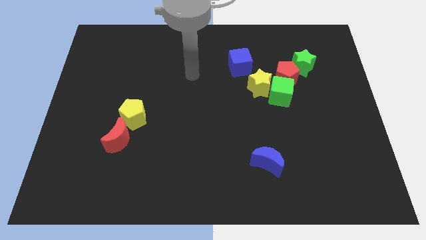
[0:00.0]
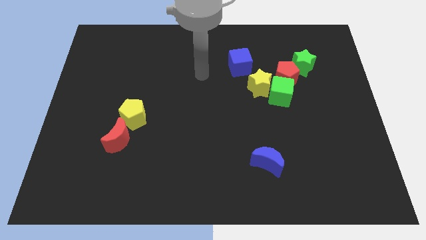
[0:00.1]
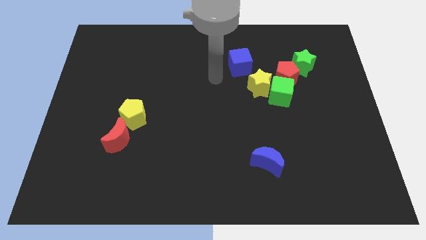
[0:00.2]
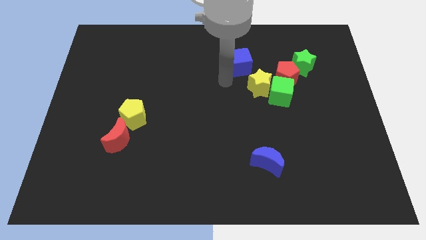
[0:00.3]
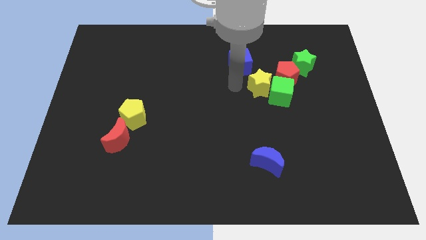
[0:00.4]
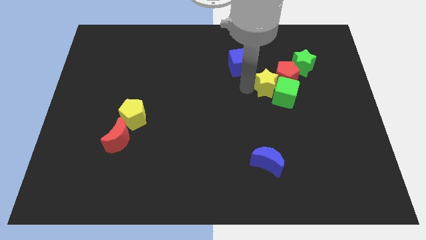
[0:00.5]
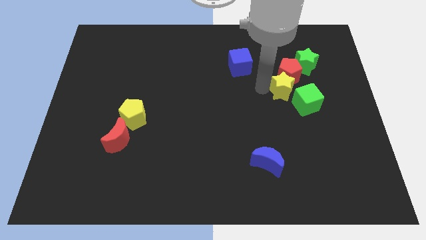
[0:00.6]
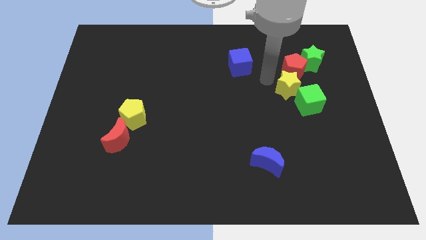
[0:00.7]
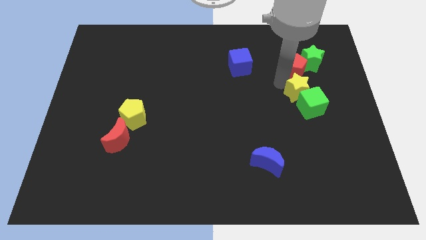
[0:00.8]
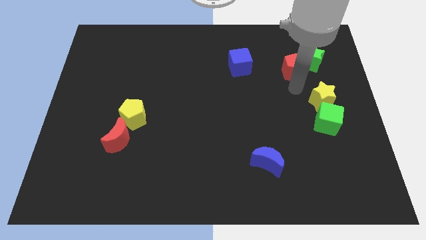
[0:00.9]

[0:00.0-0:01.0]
pull the green cube apart from the yellow star and red pentagon

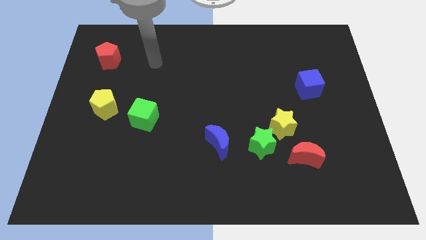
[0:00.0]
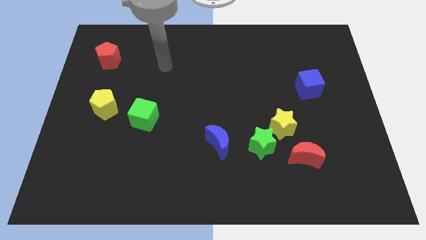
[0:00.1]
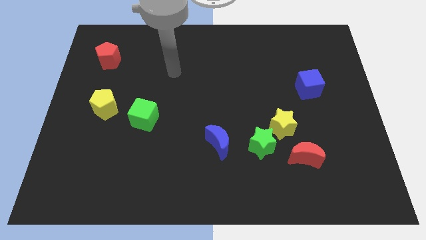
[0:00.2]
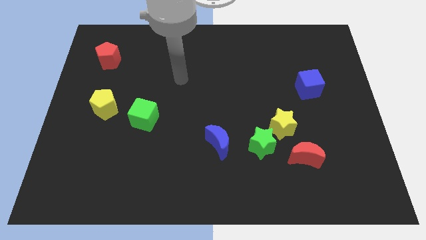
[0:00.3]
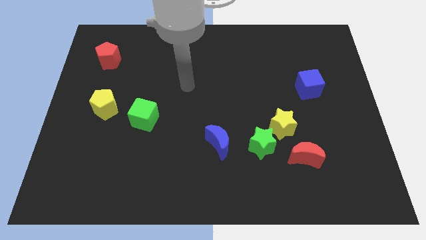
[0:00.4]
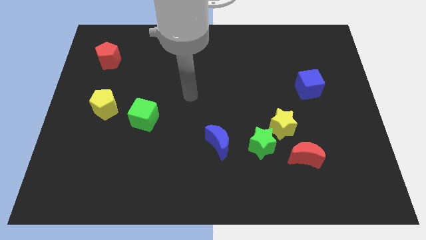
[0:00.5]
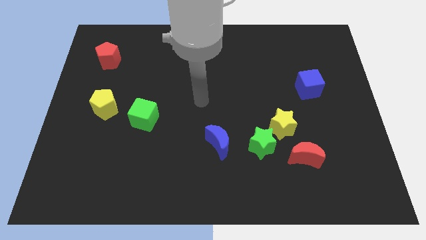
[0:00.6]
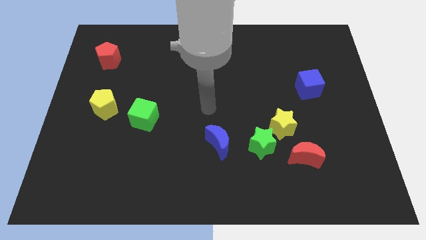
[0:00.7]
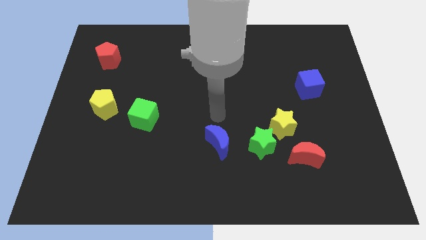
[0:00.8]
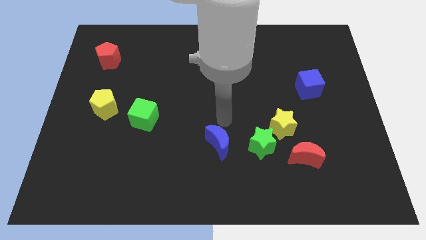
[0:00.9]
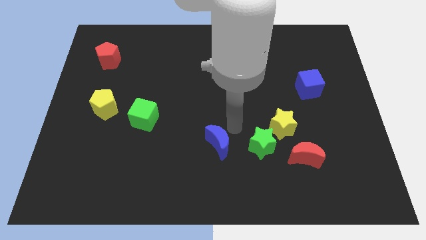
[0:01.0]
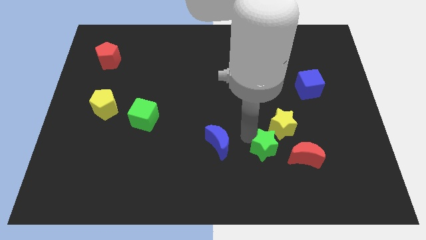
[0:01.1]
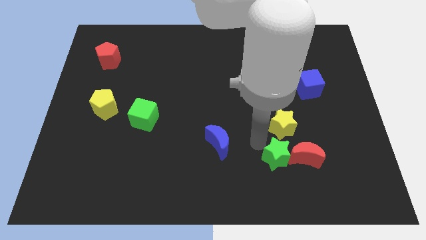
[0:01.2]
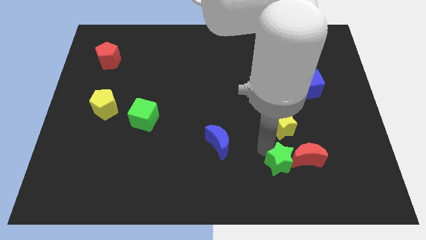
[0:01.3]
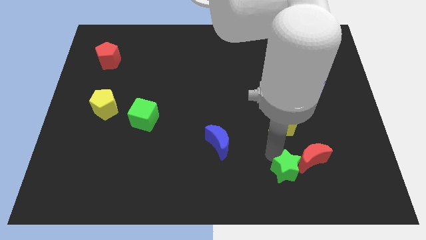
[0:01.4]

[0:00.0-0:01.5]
move the yellow star away from the green star and red moon

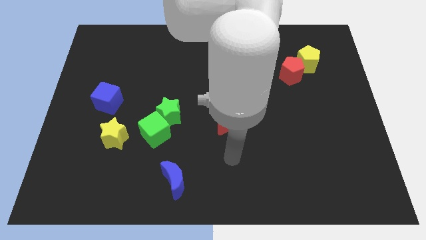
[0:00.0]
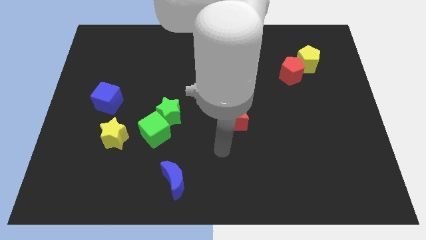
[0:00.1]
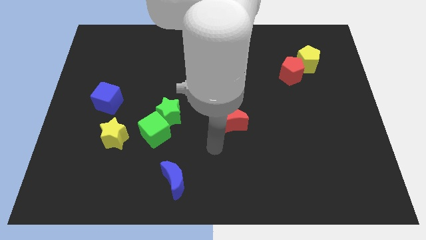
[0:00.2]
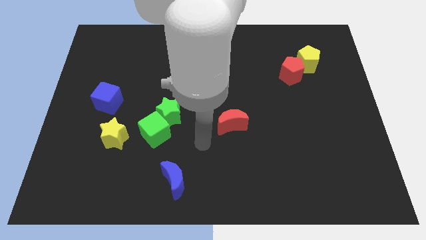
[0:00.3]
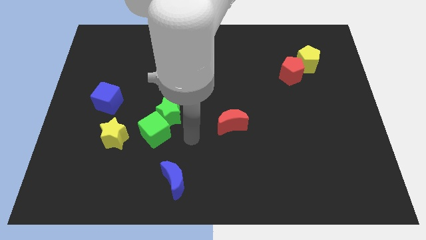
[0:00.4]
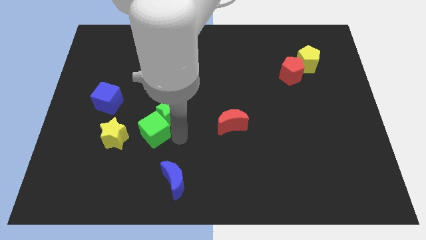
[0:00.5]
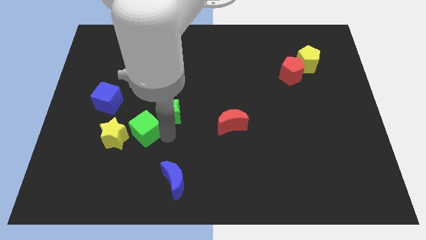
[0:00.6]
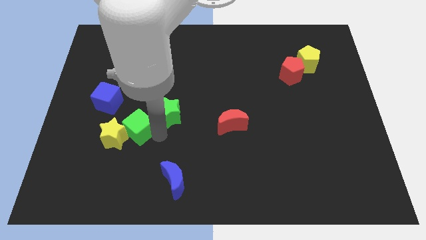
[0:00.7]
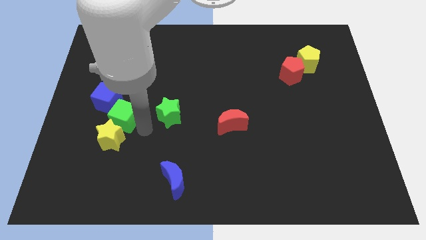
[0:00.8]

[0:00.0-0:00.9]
separate the green star from the green cube

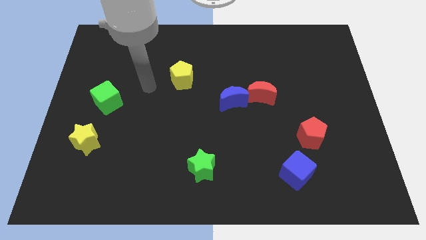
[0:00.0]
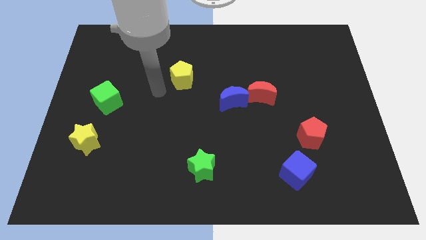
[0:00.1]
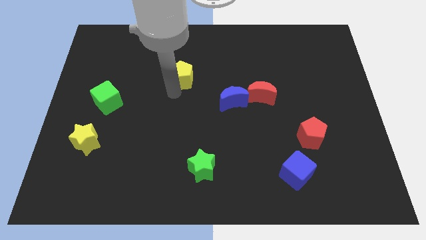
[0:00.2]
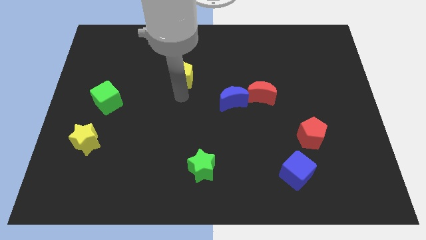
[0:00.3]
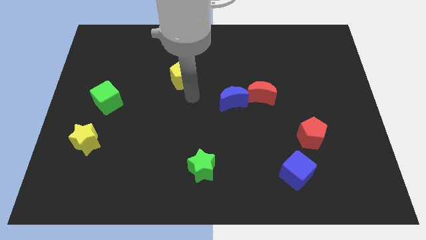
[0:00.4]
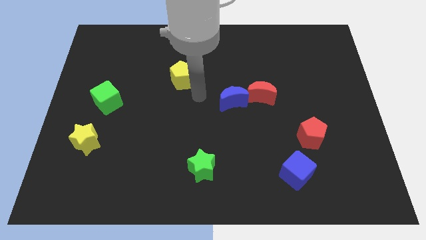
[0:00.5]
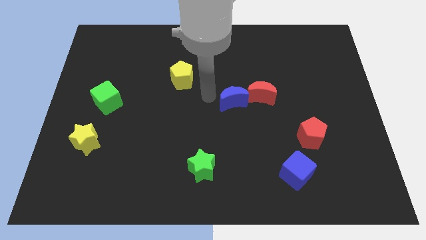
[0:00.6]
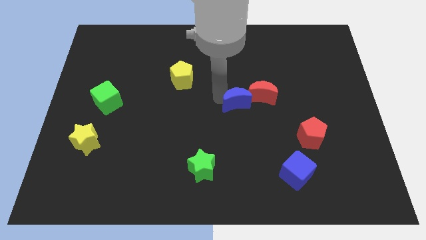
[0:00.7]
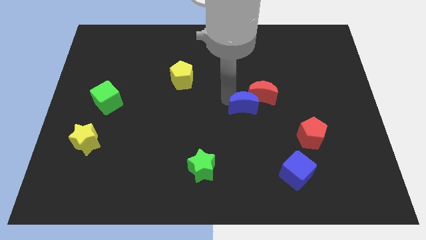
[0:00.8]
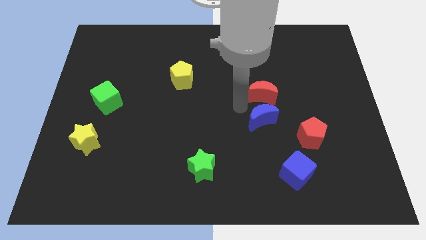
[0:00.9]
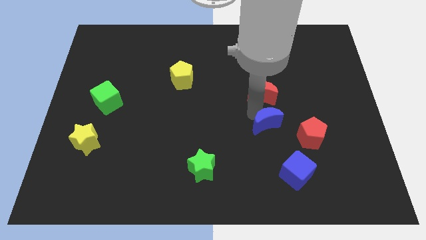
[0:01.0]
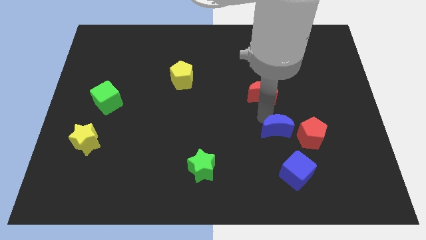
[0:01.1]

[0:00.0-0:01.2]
separate the red moon from the blue moon

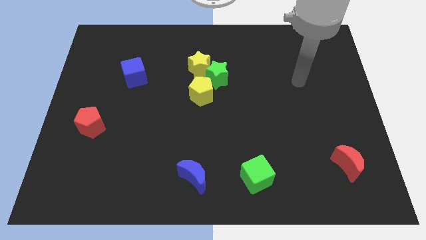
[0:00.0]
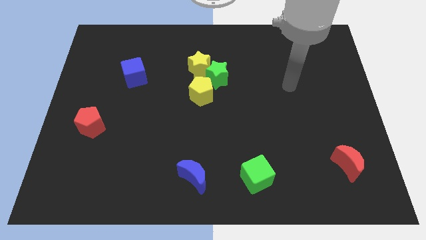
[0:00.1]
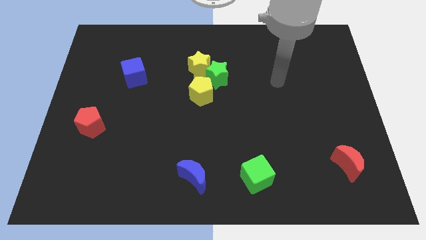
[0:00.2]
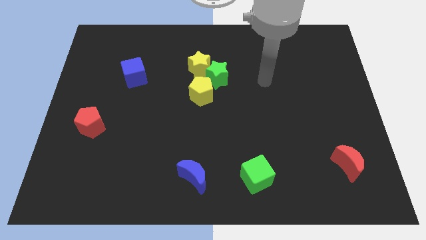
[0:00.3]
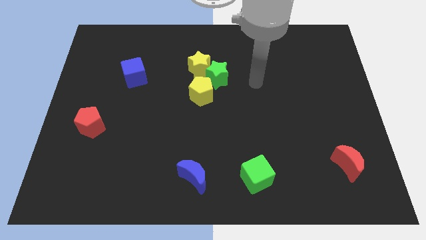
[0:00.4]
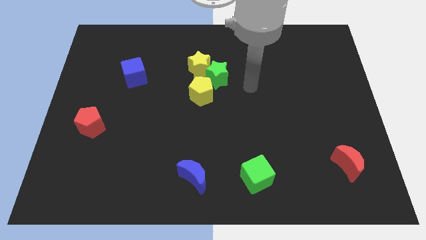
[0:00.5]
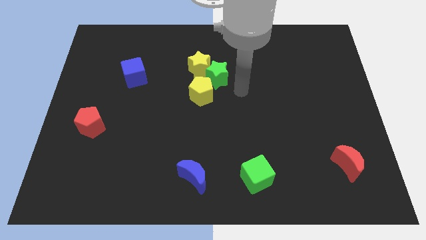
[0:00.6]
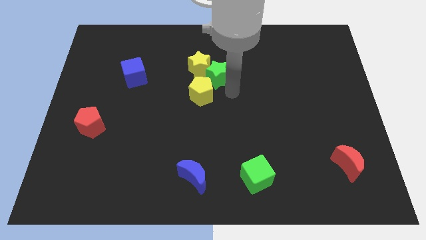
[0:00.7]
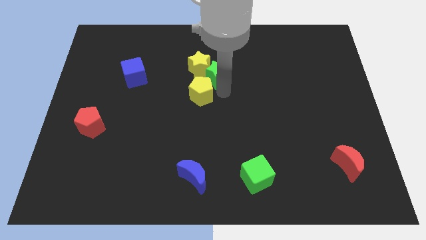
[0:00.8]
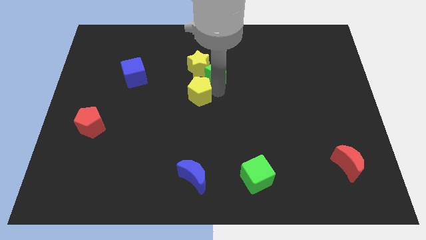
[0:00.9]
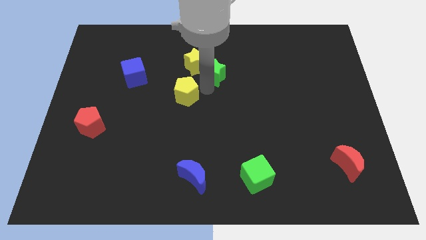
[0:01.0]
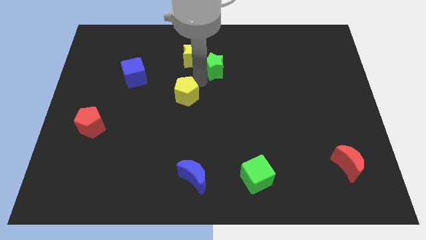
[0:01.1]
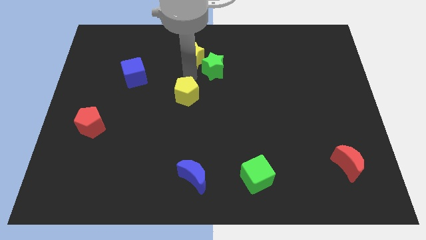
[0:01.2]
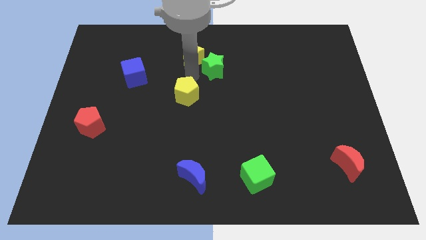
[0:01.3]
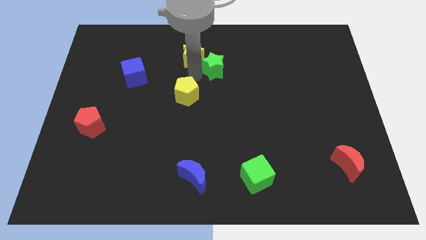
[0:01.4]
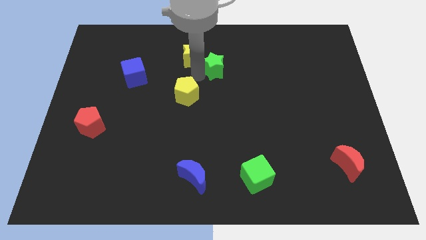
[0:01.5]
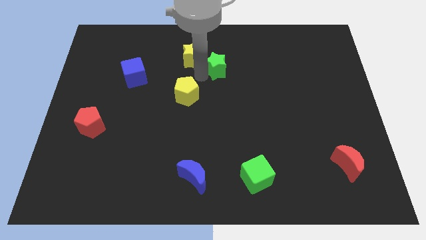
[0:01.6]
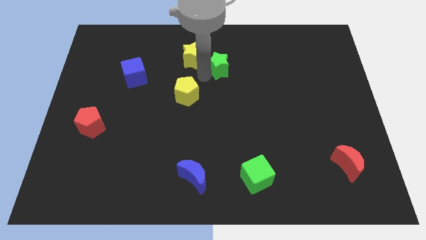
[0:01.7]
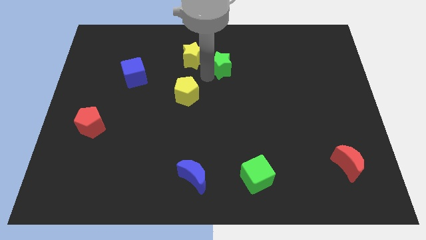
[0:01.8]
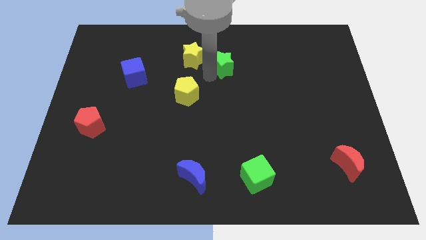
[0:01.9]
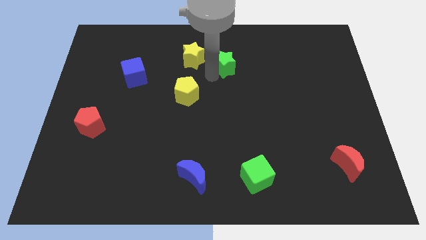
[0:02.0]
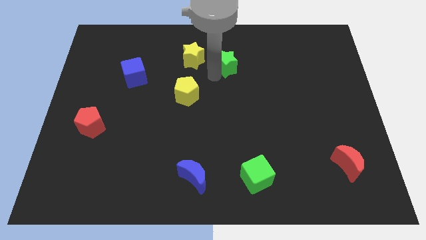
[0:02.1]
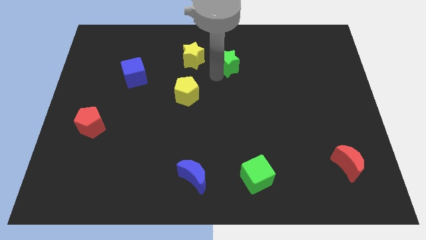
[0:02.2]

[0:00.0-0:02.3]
pull the green star apart from the yellow star and yellow pentagon

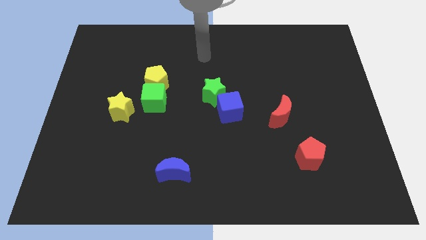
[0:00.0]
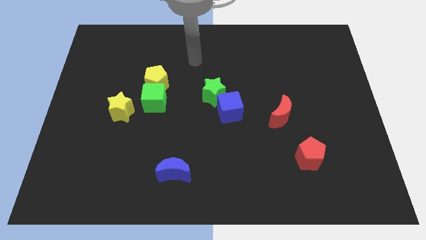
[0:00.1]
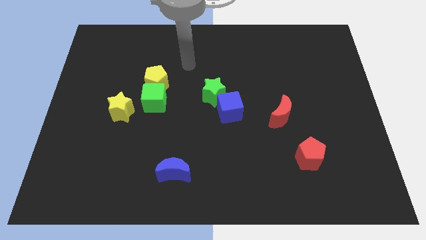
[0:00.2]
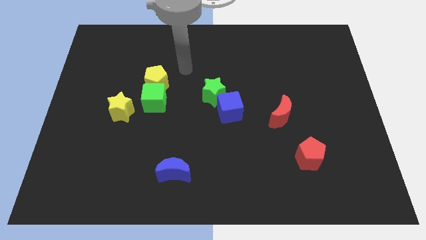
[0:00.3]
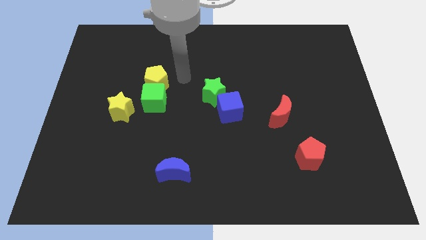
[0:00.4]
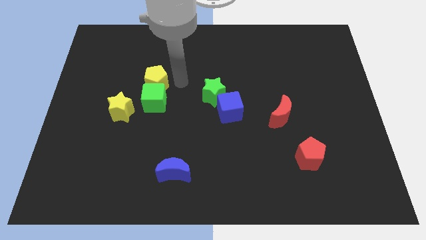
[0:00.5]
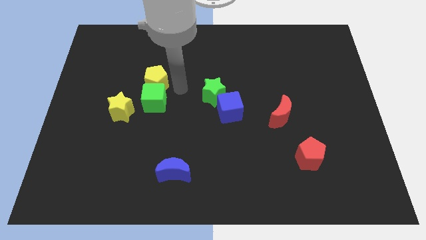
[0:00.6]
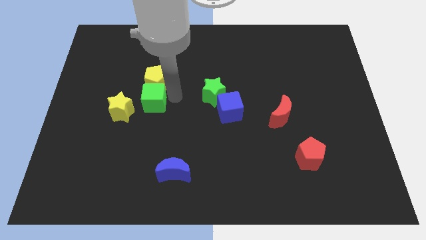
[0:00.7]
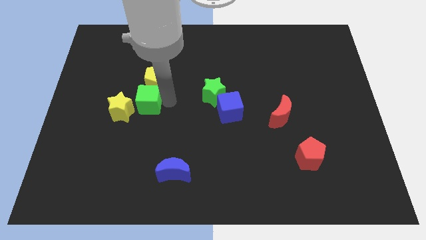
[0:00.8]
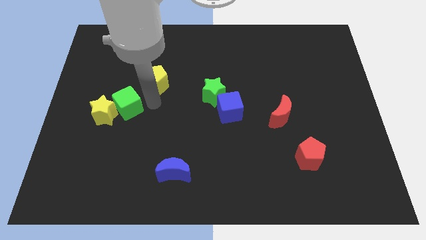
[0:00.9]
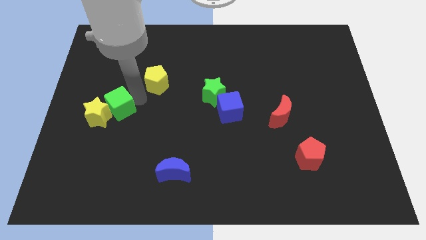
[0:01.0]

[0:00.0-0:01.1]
move the yellow pentagon away from the green cube

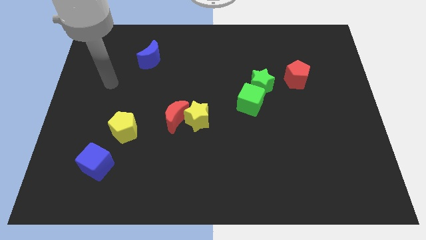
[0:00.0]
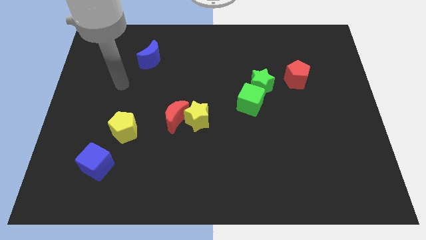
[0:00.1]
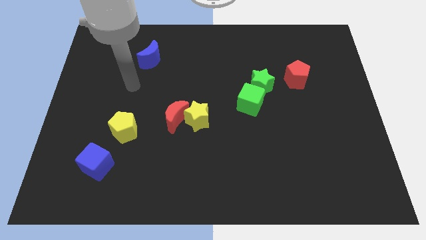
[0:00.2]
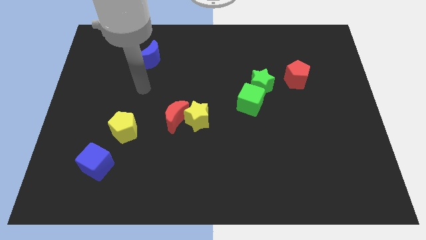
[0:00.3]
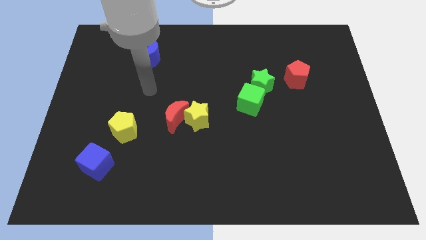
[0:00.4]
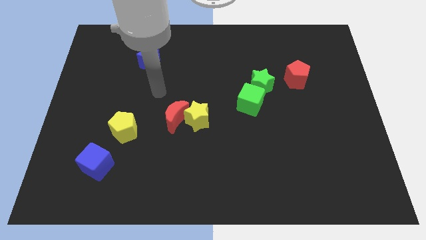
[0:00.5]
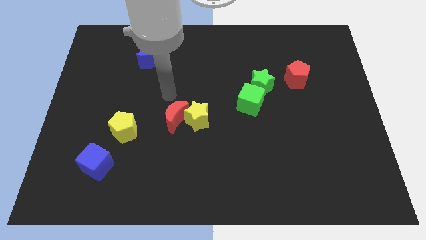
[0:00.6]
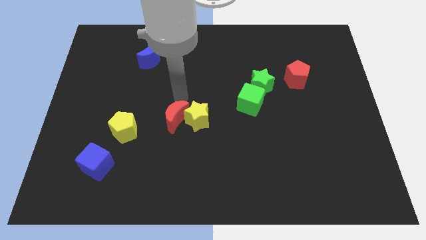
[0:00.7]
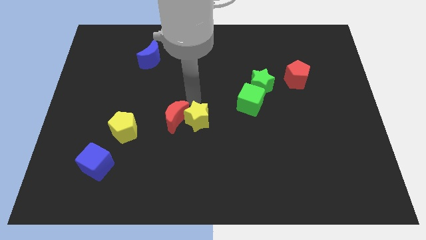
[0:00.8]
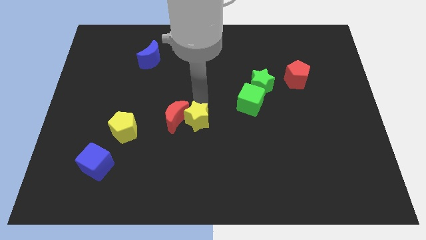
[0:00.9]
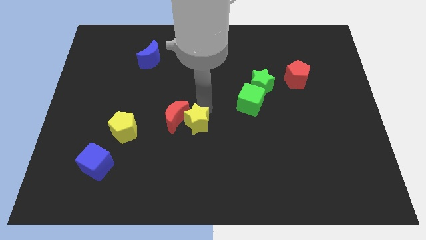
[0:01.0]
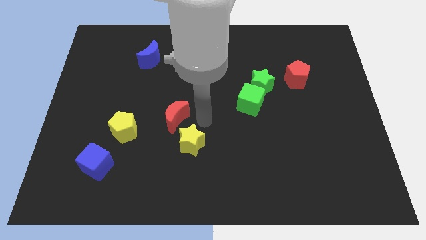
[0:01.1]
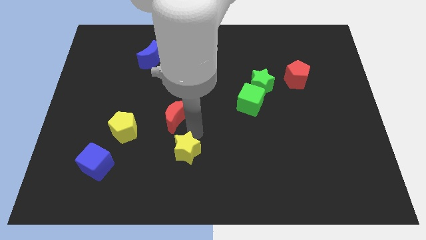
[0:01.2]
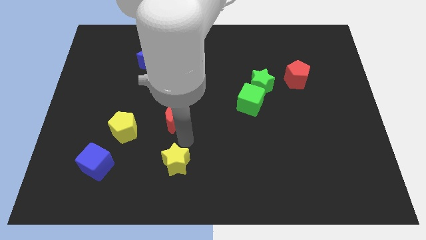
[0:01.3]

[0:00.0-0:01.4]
move the red moon away from the yellow star

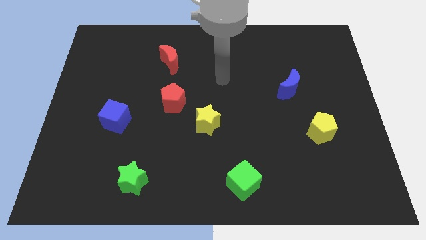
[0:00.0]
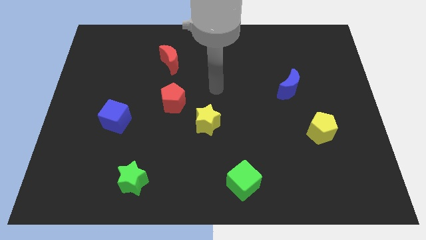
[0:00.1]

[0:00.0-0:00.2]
pull the red pentagon apart from the yellow star
